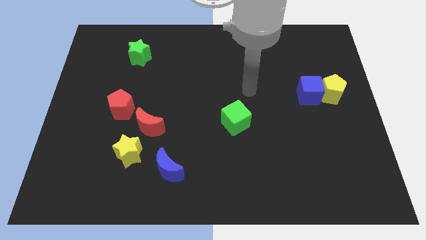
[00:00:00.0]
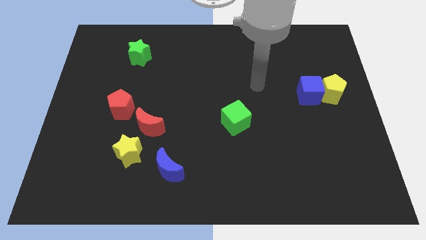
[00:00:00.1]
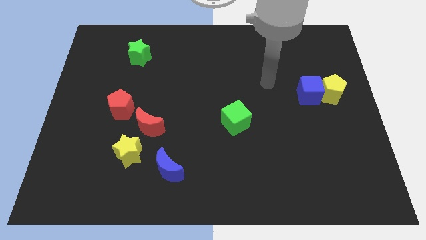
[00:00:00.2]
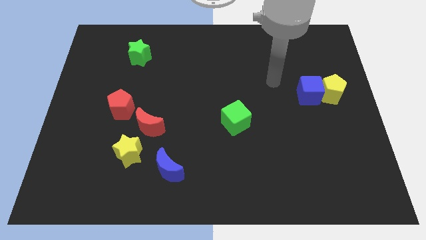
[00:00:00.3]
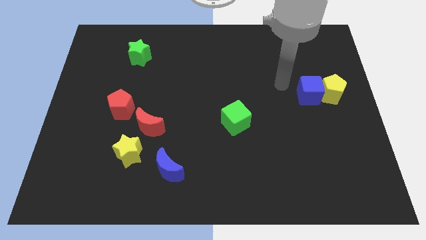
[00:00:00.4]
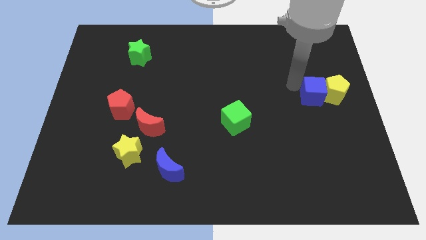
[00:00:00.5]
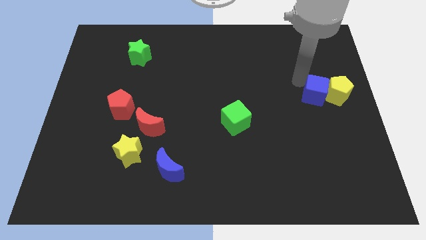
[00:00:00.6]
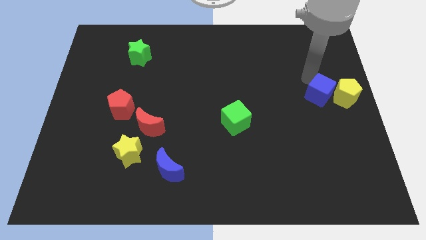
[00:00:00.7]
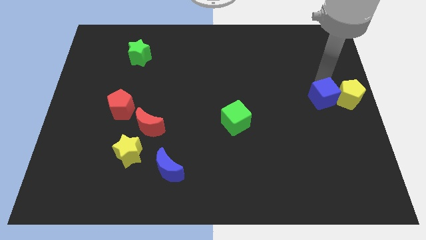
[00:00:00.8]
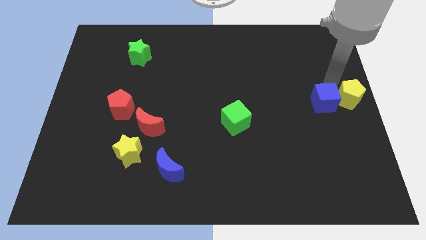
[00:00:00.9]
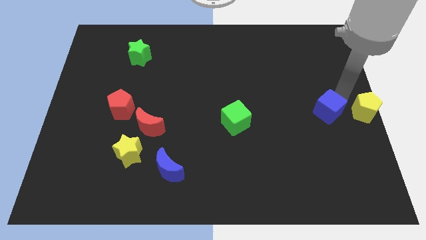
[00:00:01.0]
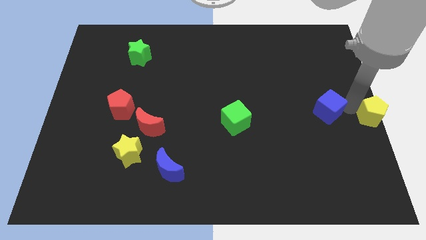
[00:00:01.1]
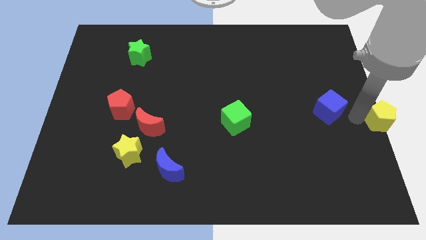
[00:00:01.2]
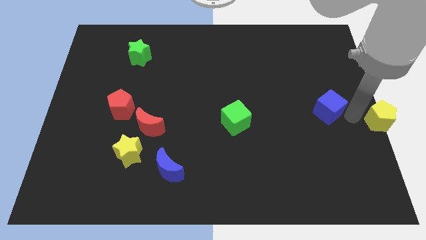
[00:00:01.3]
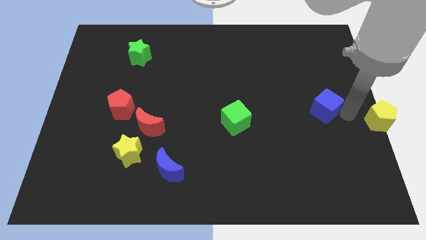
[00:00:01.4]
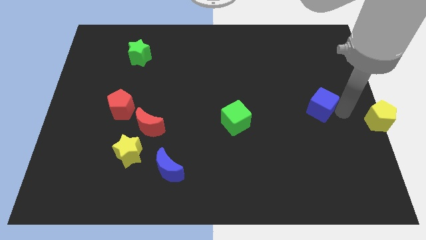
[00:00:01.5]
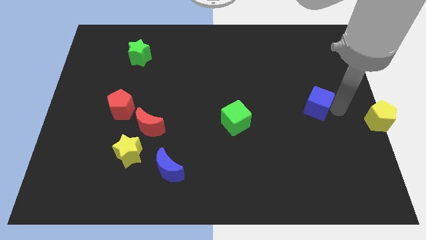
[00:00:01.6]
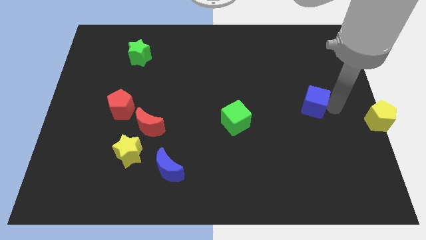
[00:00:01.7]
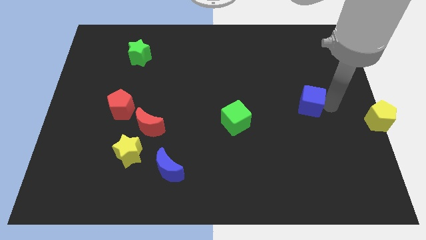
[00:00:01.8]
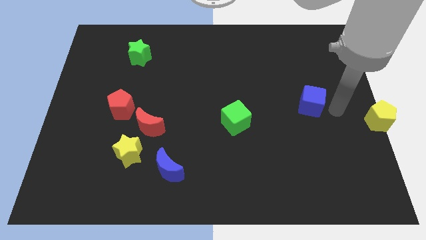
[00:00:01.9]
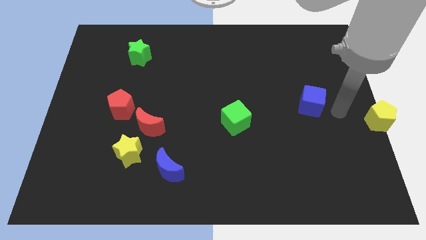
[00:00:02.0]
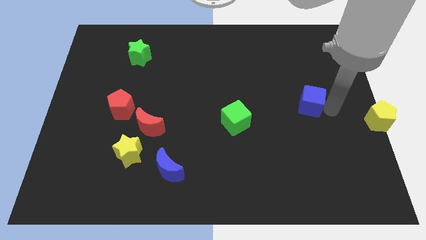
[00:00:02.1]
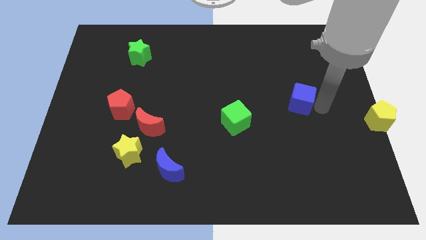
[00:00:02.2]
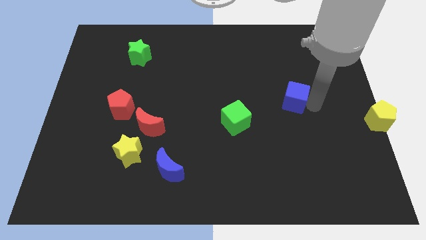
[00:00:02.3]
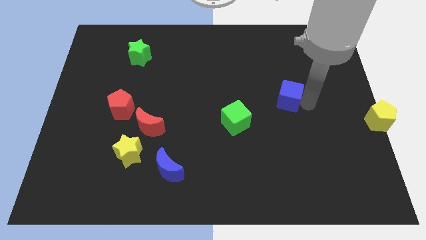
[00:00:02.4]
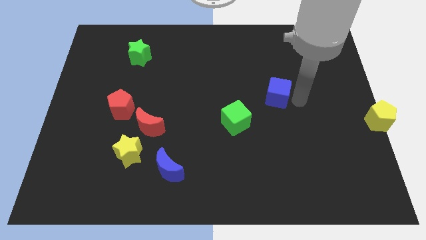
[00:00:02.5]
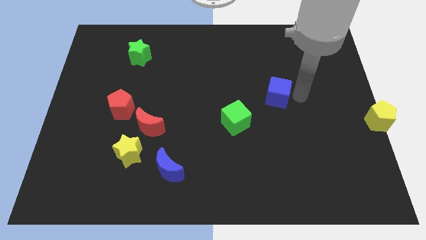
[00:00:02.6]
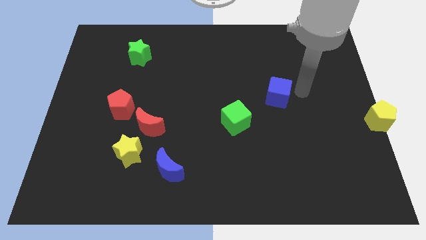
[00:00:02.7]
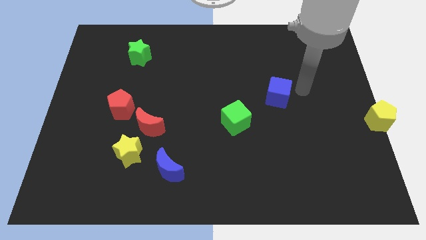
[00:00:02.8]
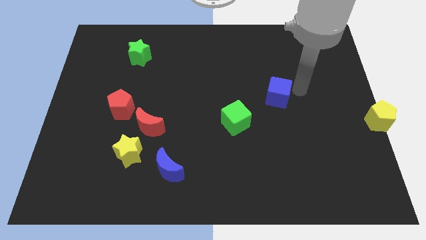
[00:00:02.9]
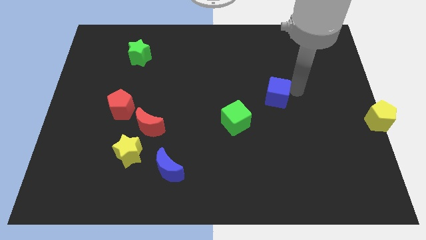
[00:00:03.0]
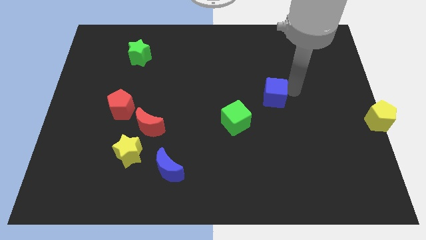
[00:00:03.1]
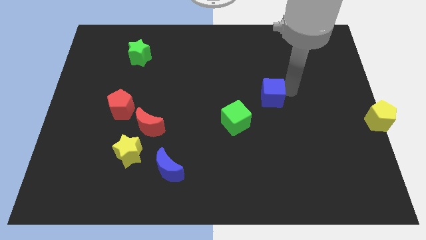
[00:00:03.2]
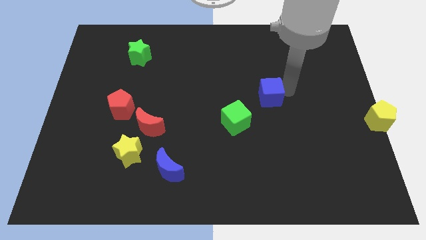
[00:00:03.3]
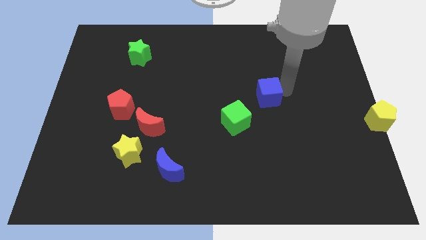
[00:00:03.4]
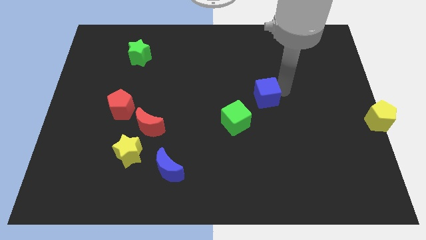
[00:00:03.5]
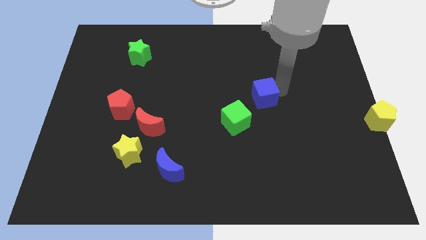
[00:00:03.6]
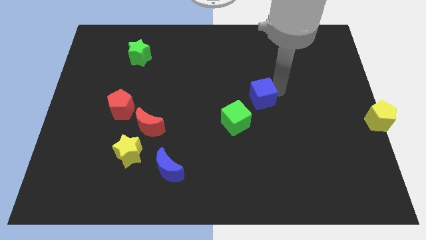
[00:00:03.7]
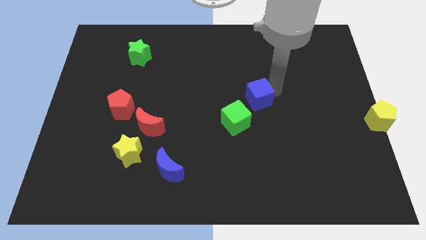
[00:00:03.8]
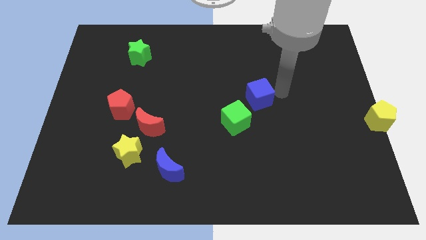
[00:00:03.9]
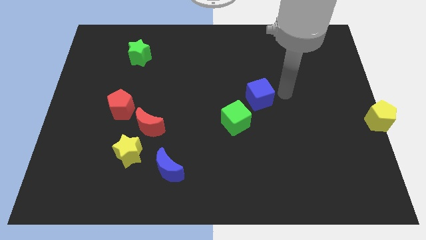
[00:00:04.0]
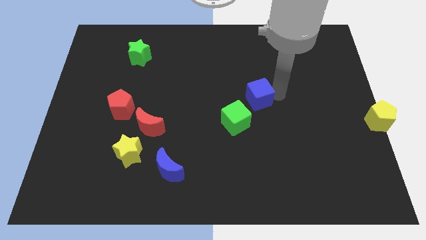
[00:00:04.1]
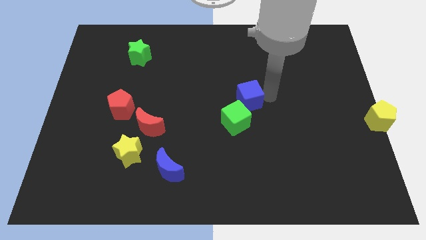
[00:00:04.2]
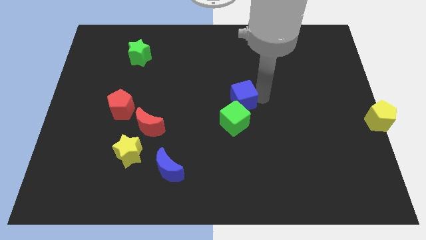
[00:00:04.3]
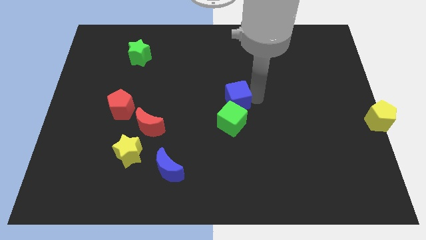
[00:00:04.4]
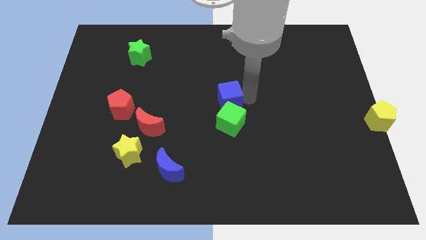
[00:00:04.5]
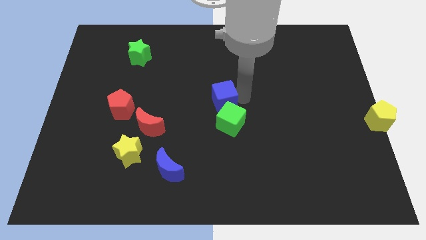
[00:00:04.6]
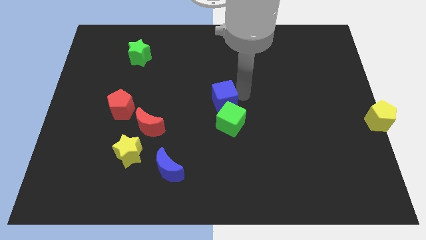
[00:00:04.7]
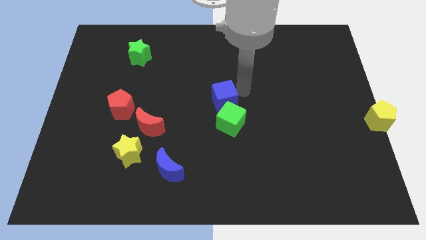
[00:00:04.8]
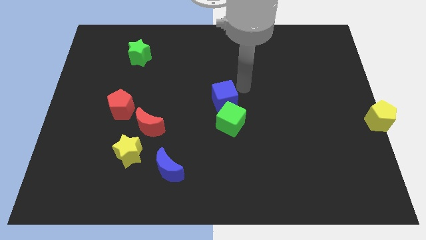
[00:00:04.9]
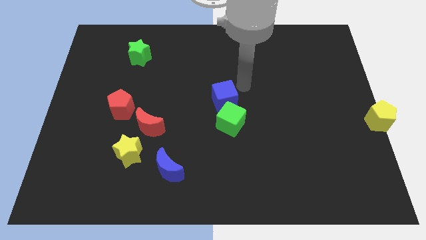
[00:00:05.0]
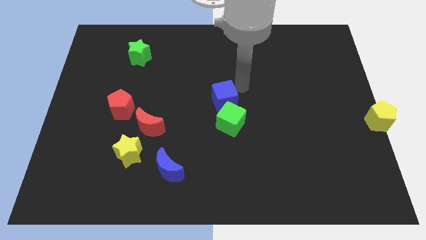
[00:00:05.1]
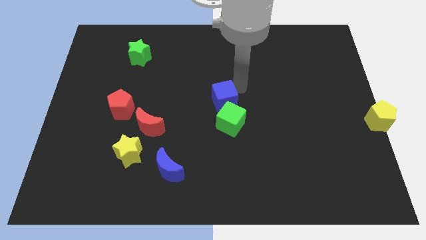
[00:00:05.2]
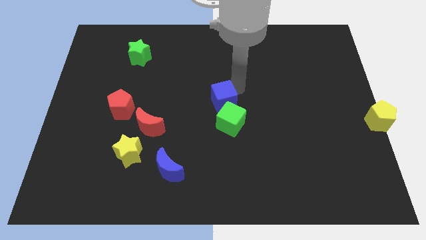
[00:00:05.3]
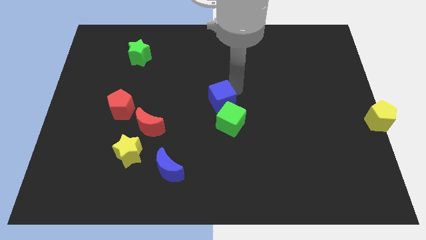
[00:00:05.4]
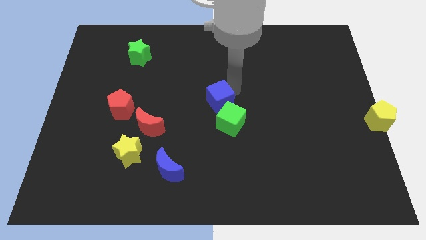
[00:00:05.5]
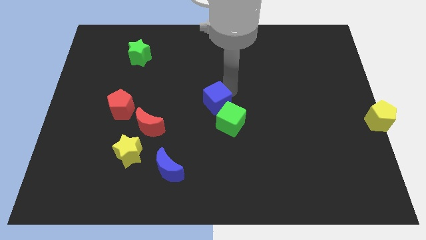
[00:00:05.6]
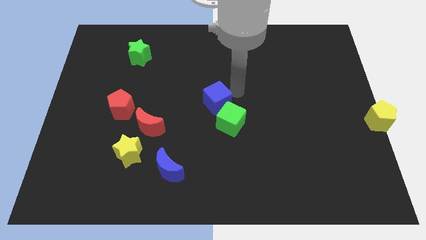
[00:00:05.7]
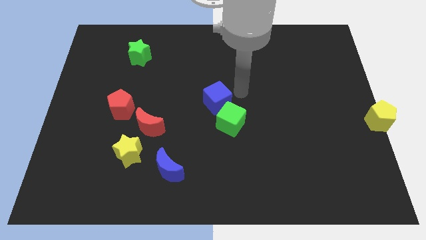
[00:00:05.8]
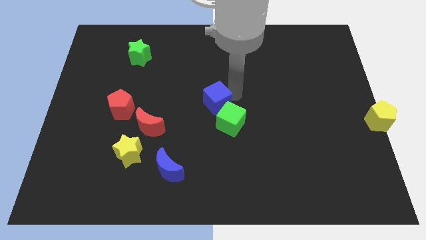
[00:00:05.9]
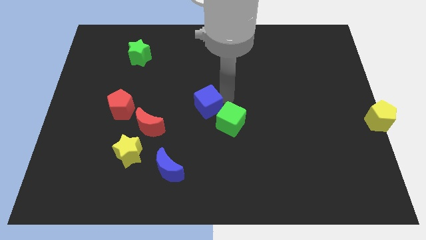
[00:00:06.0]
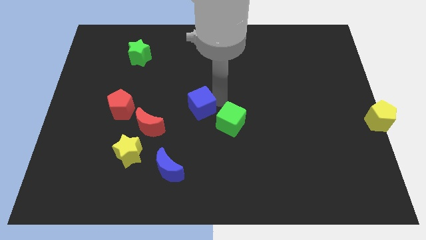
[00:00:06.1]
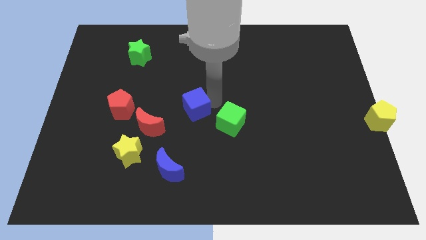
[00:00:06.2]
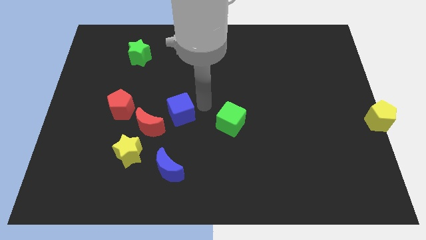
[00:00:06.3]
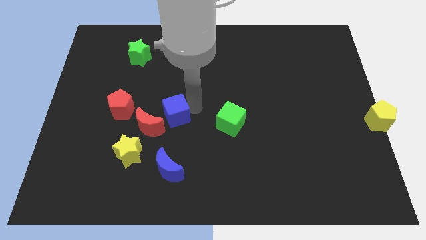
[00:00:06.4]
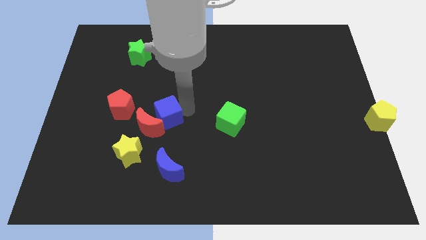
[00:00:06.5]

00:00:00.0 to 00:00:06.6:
put the blue cube towards the red moon

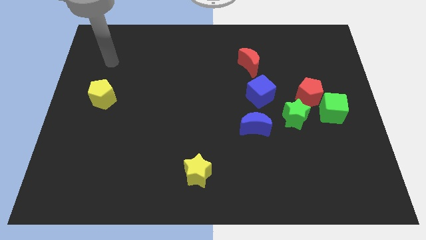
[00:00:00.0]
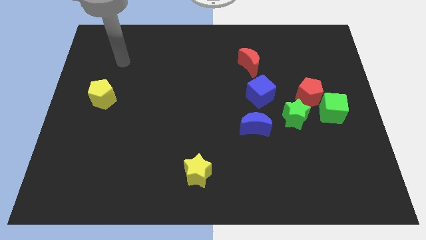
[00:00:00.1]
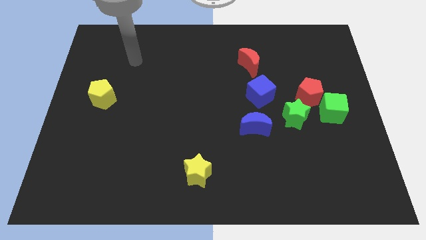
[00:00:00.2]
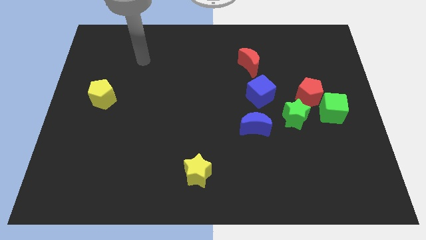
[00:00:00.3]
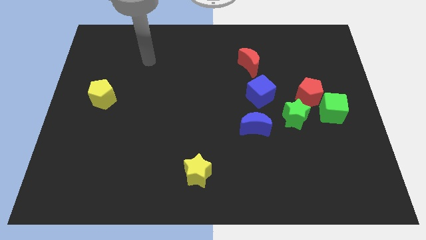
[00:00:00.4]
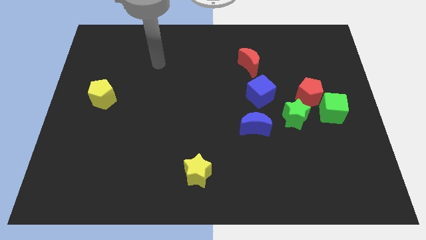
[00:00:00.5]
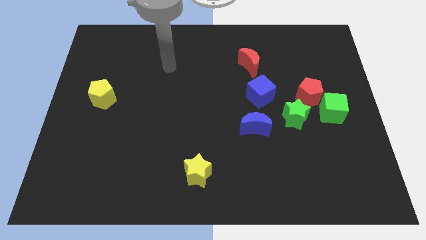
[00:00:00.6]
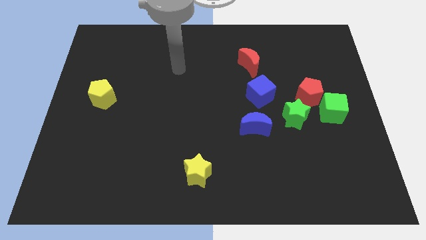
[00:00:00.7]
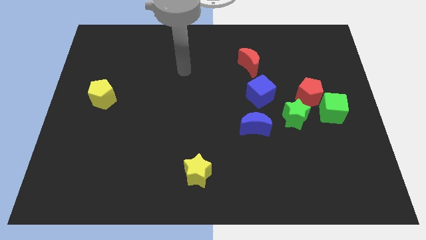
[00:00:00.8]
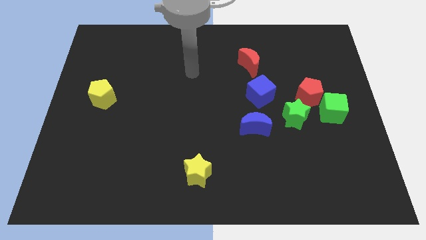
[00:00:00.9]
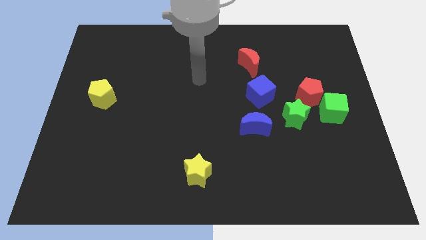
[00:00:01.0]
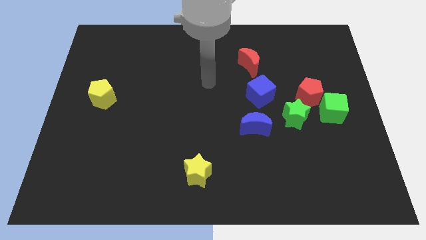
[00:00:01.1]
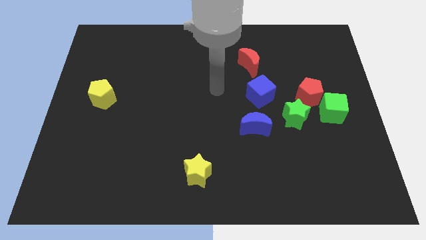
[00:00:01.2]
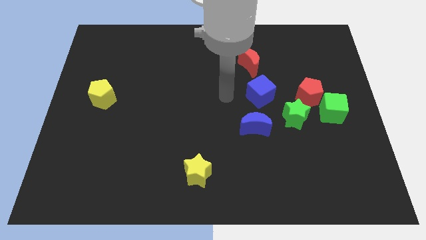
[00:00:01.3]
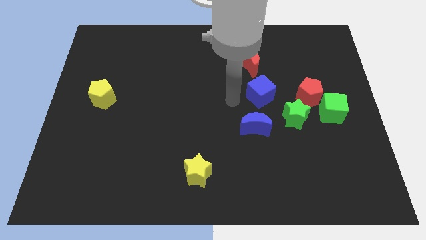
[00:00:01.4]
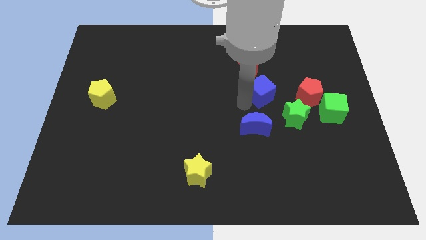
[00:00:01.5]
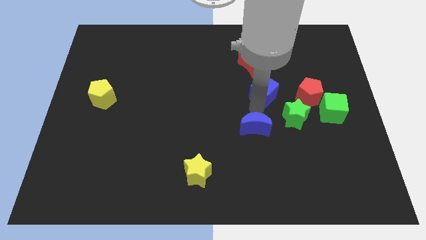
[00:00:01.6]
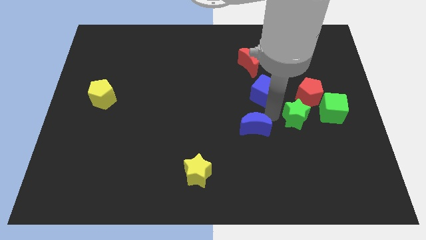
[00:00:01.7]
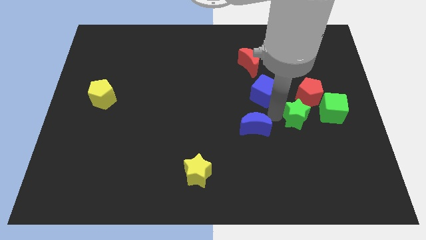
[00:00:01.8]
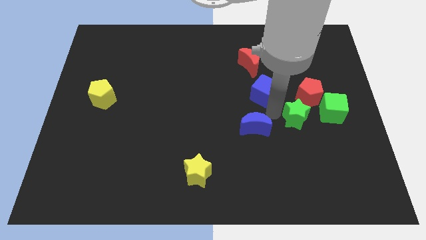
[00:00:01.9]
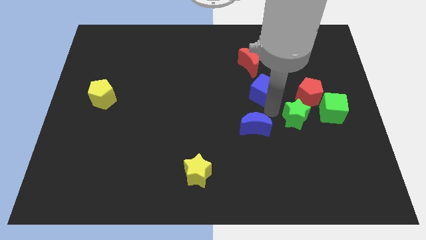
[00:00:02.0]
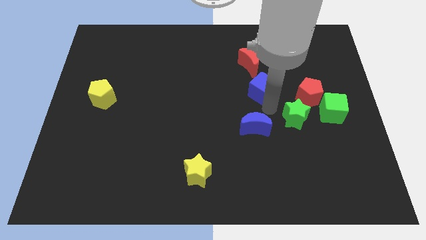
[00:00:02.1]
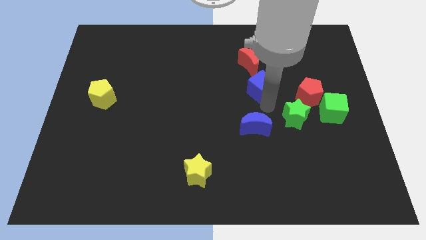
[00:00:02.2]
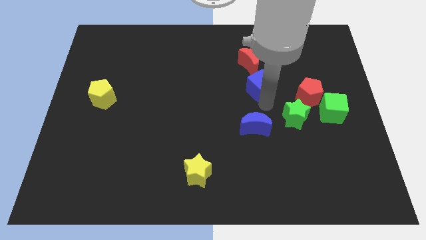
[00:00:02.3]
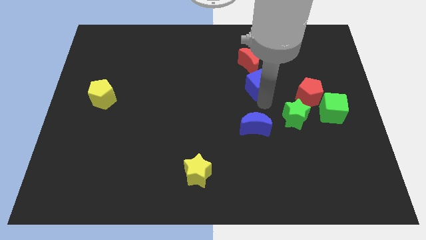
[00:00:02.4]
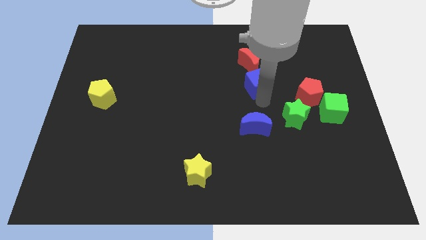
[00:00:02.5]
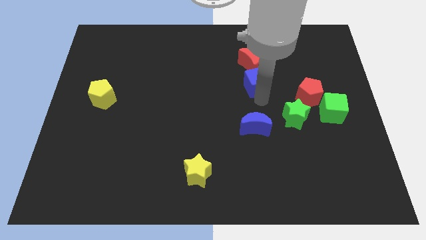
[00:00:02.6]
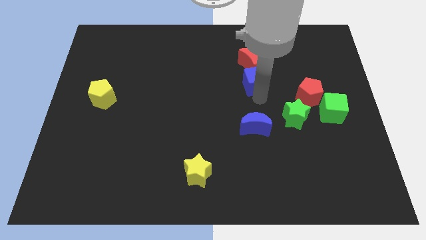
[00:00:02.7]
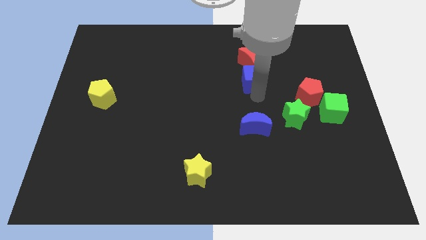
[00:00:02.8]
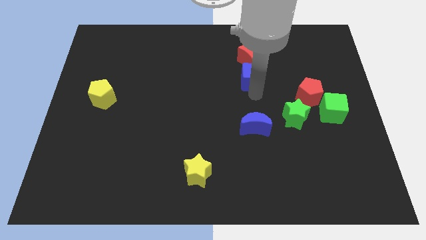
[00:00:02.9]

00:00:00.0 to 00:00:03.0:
put the blue cube close to the red moon
